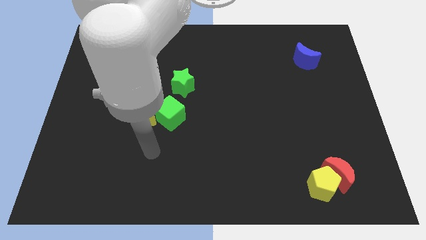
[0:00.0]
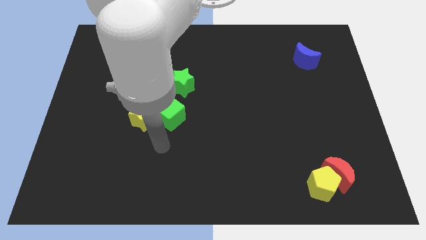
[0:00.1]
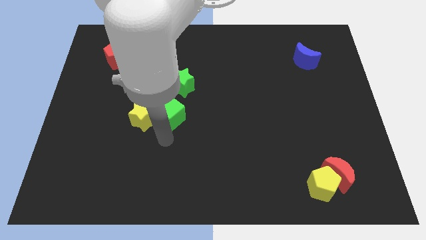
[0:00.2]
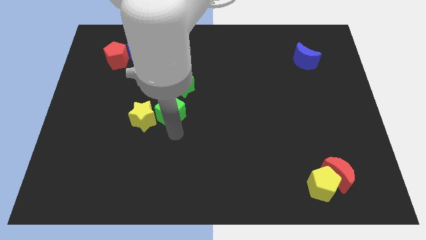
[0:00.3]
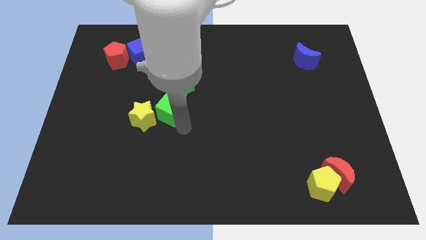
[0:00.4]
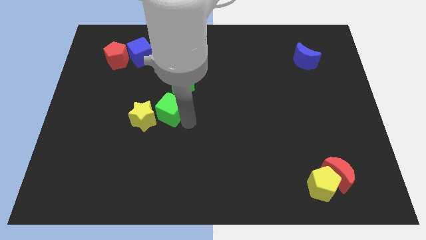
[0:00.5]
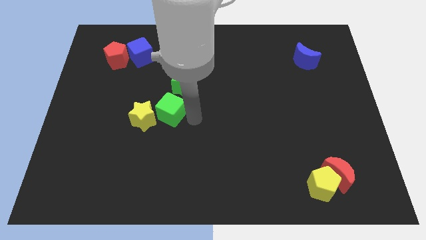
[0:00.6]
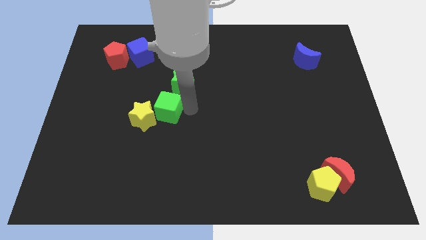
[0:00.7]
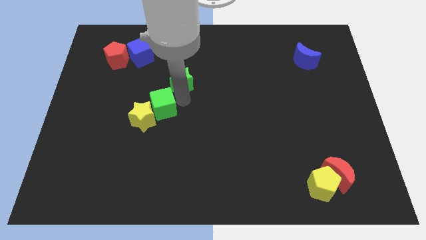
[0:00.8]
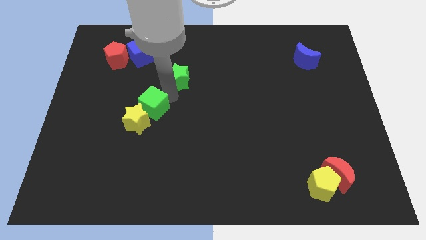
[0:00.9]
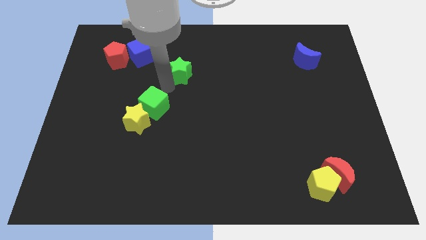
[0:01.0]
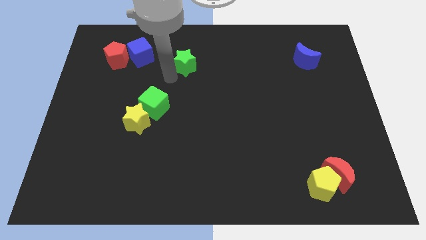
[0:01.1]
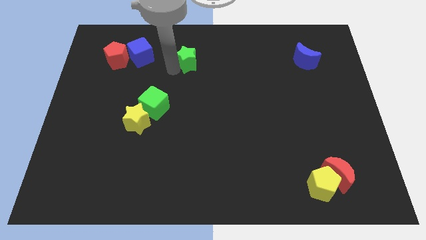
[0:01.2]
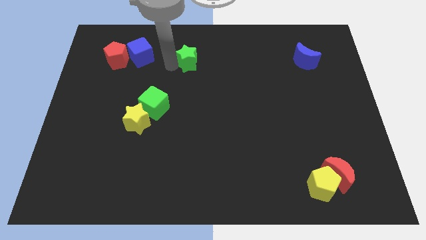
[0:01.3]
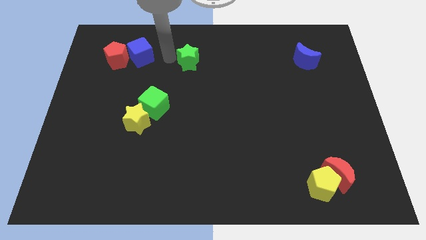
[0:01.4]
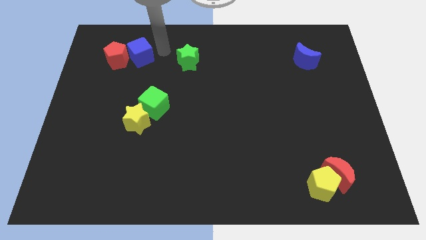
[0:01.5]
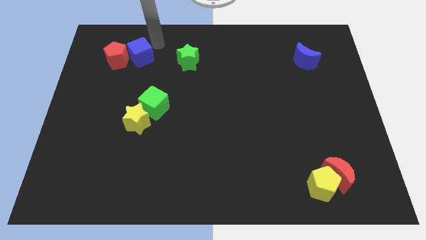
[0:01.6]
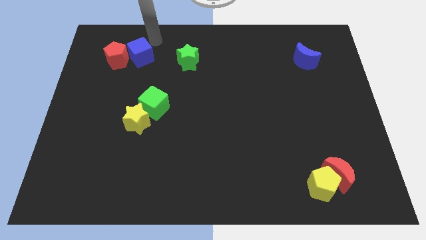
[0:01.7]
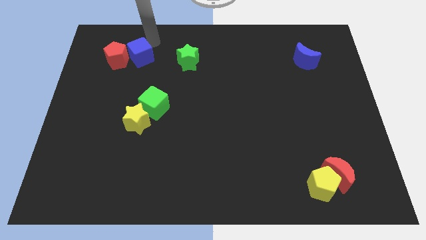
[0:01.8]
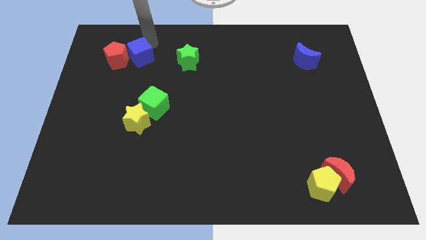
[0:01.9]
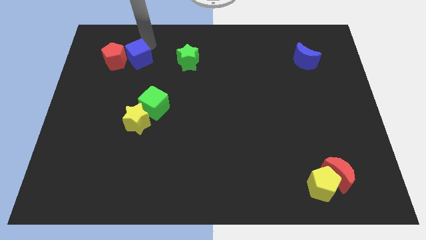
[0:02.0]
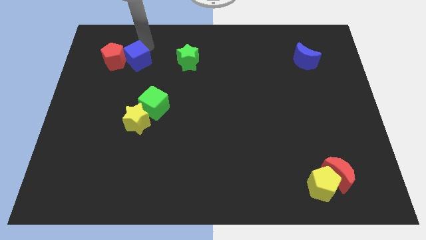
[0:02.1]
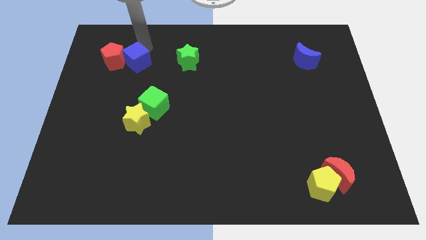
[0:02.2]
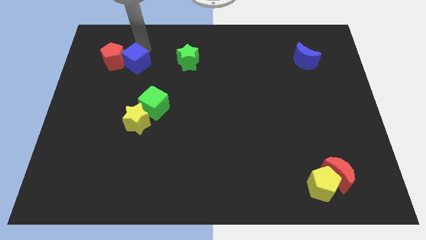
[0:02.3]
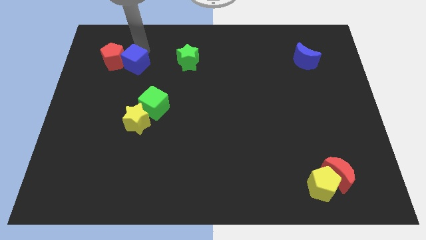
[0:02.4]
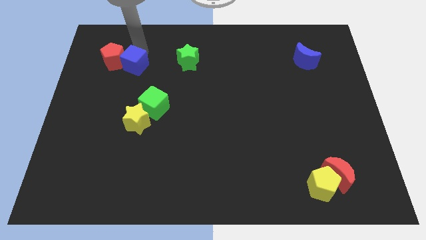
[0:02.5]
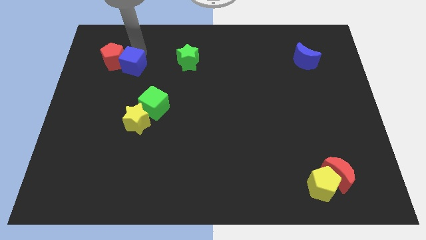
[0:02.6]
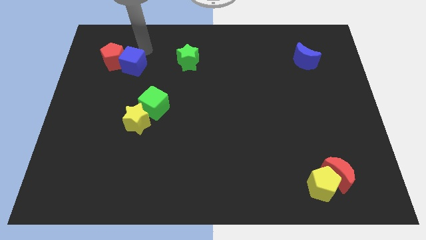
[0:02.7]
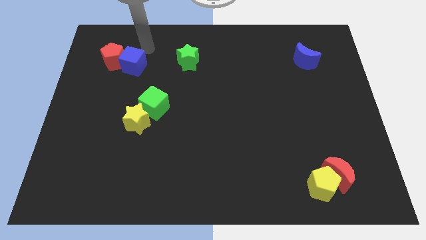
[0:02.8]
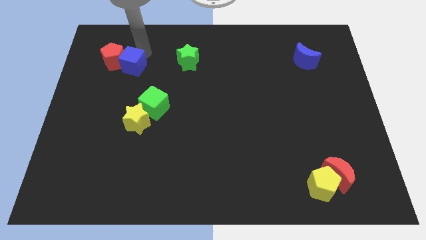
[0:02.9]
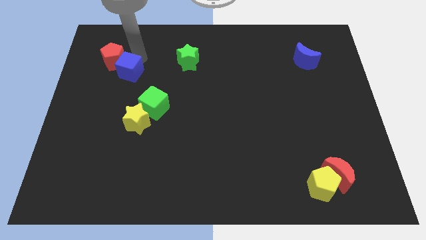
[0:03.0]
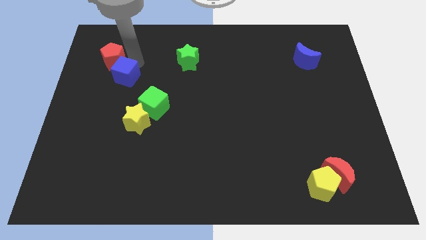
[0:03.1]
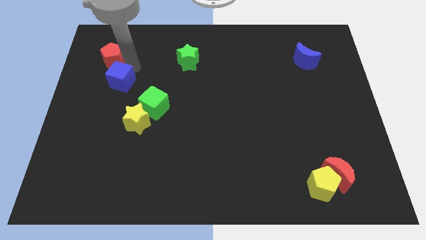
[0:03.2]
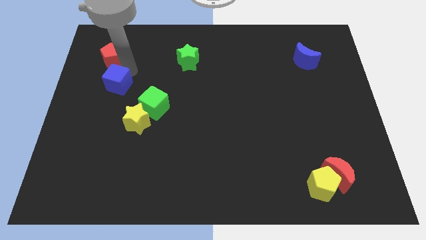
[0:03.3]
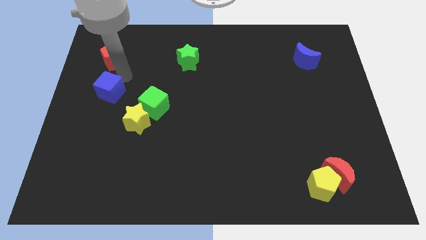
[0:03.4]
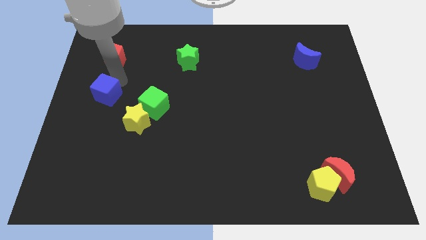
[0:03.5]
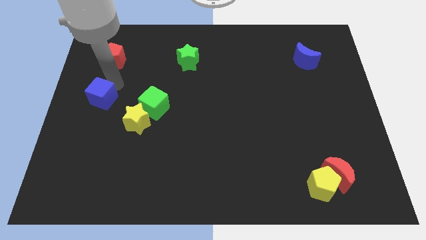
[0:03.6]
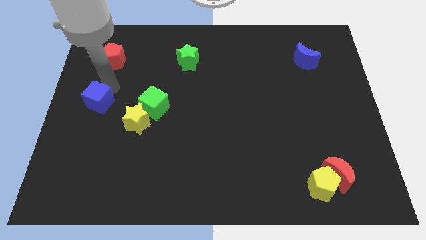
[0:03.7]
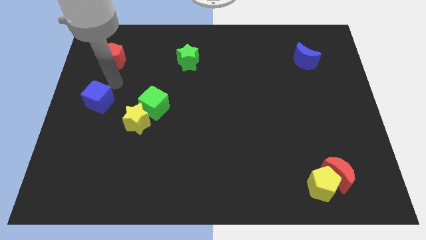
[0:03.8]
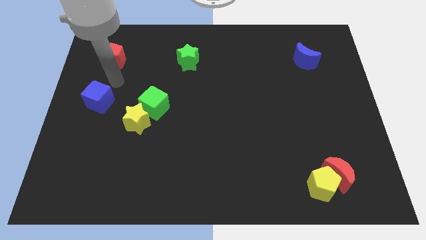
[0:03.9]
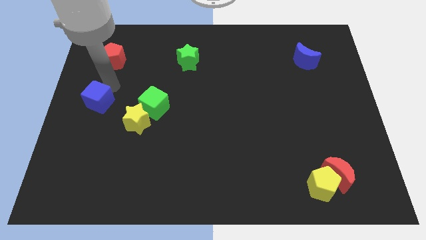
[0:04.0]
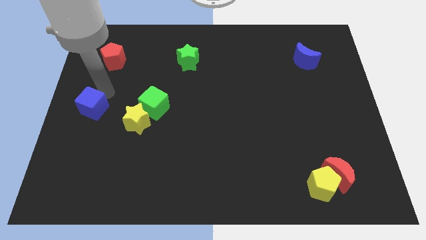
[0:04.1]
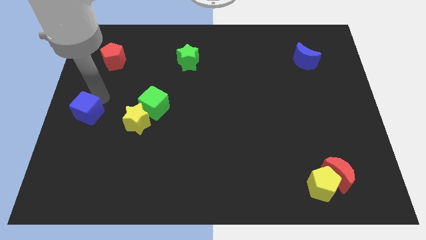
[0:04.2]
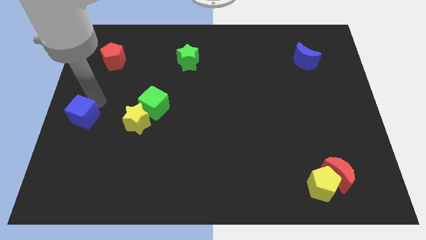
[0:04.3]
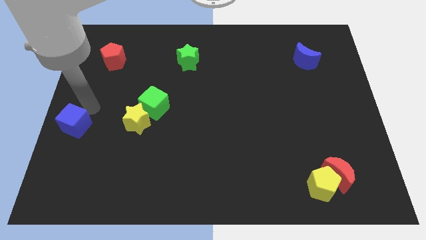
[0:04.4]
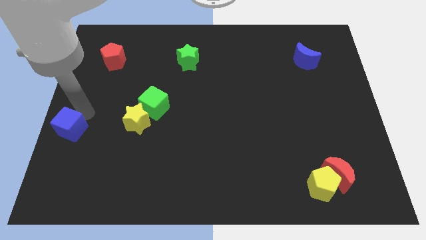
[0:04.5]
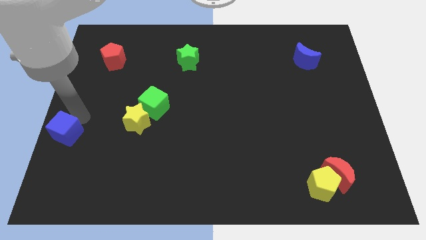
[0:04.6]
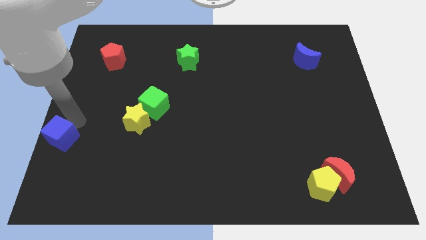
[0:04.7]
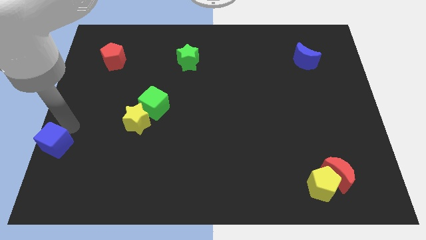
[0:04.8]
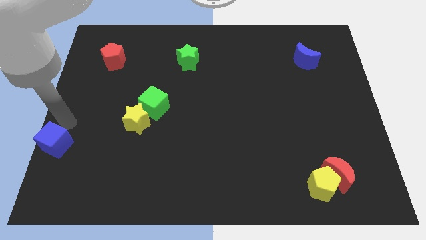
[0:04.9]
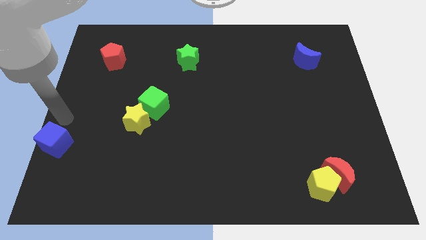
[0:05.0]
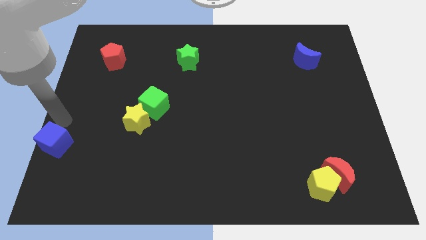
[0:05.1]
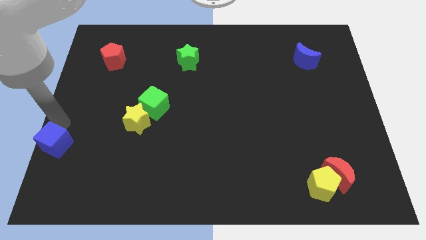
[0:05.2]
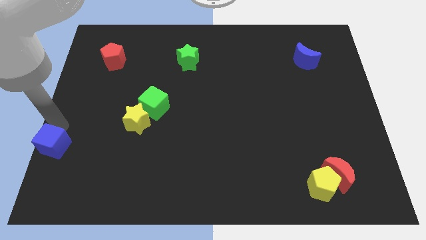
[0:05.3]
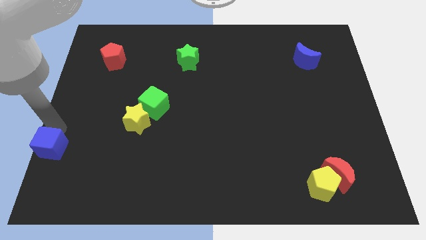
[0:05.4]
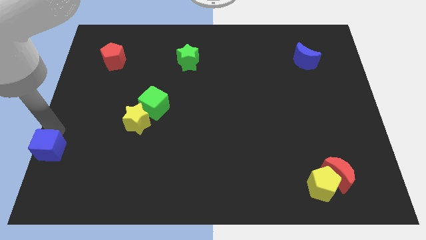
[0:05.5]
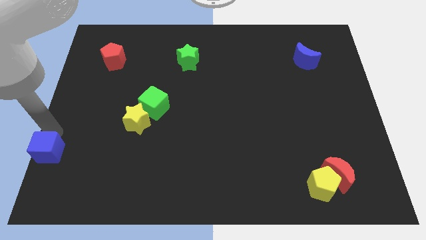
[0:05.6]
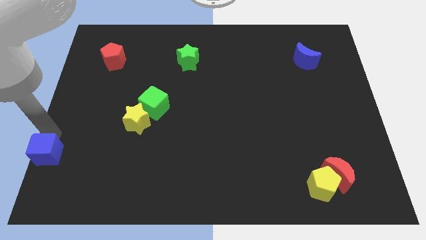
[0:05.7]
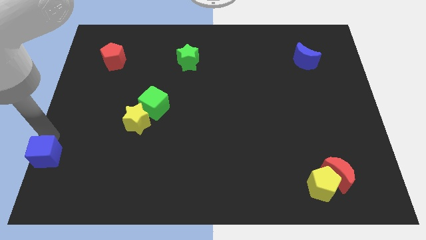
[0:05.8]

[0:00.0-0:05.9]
move the blue cube to the lower left corner
